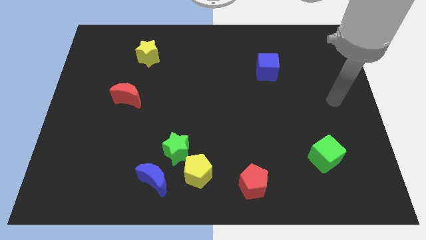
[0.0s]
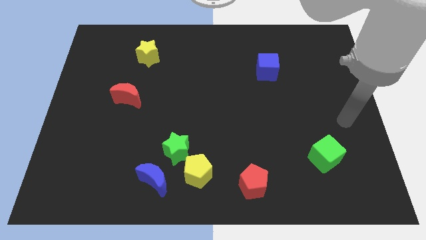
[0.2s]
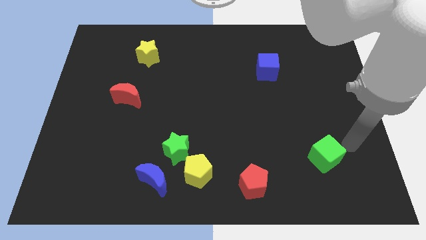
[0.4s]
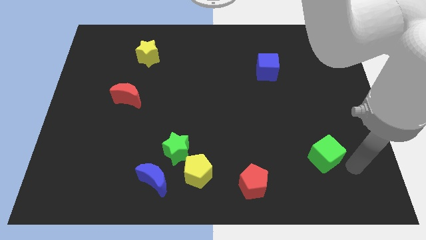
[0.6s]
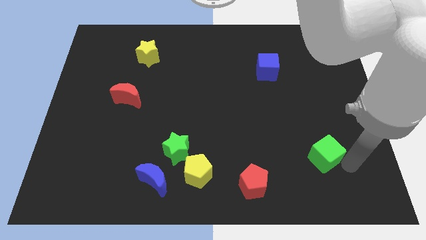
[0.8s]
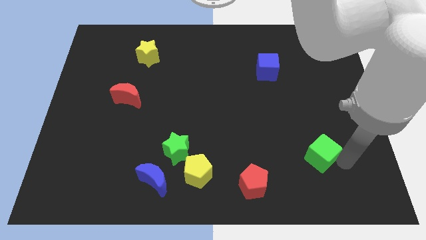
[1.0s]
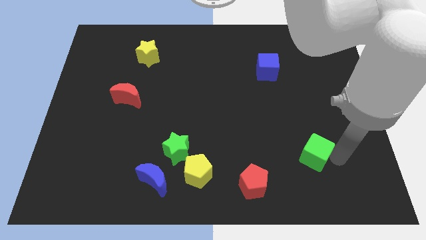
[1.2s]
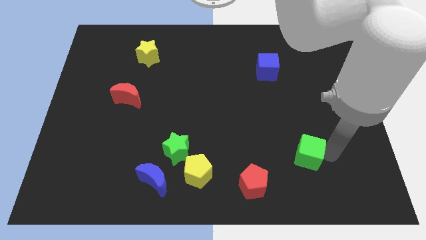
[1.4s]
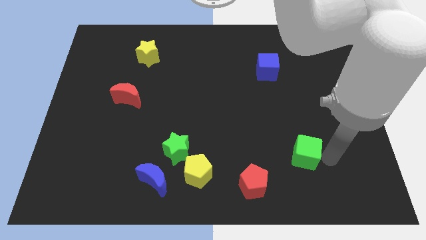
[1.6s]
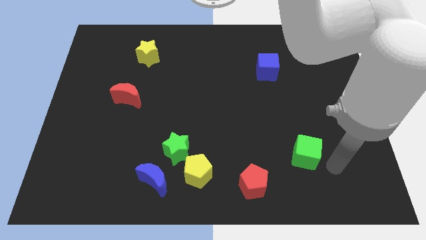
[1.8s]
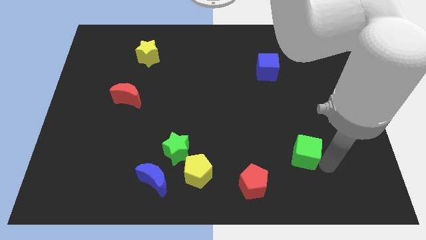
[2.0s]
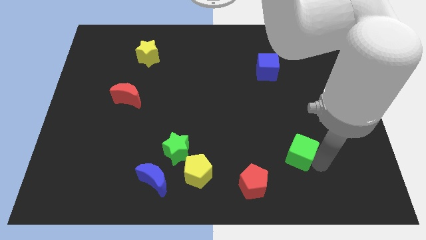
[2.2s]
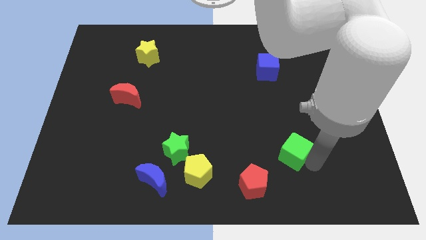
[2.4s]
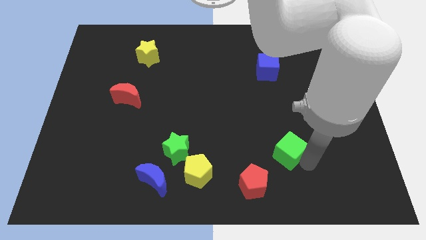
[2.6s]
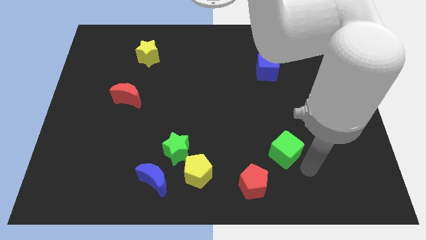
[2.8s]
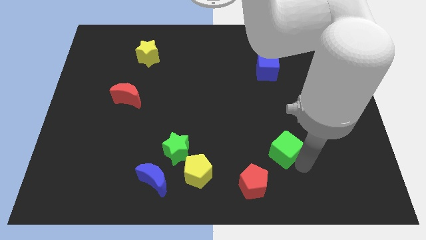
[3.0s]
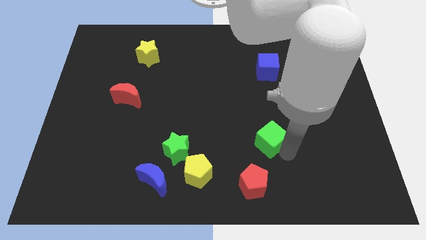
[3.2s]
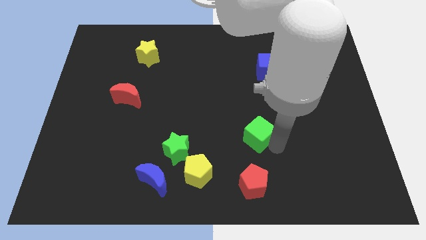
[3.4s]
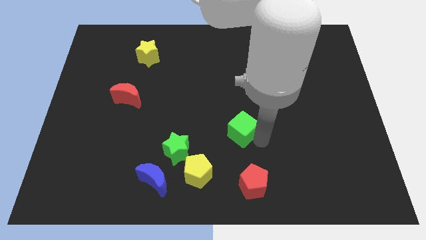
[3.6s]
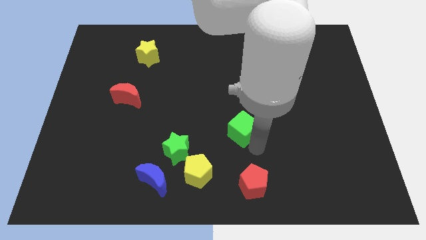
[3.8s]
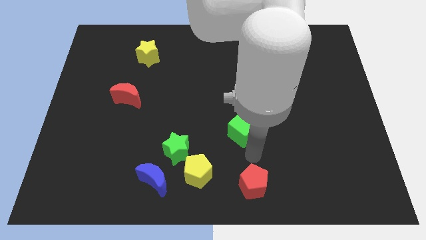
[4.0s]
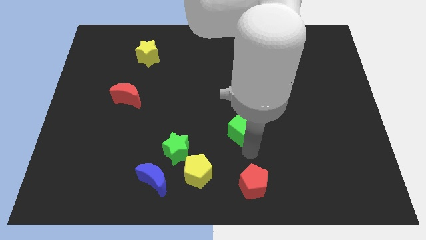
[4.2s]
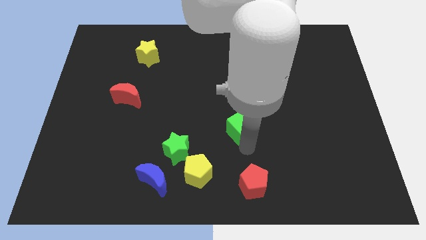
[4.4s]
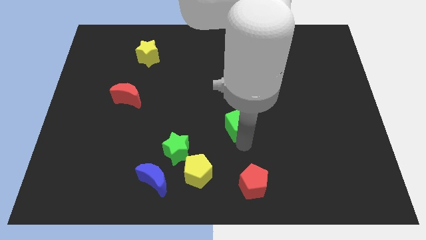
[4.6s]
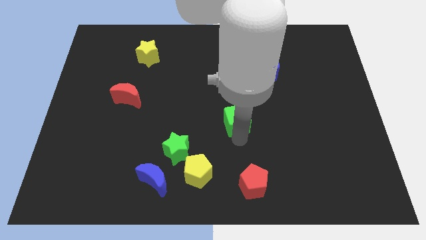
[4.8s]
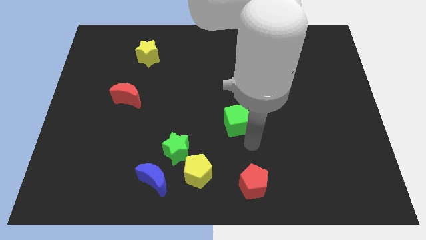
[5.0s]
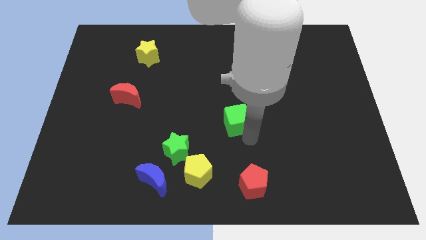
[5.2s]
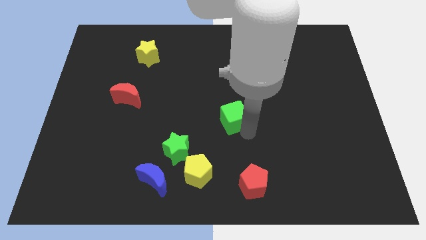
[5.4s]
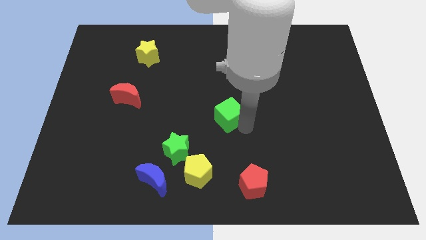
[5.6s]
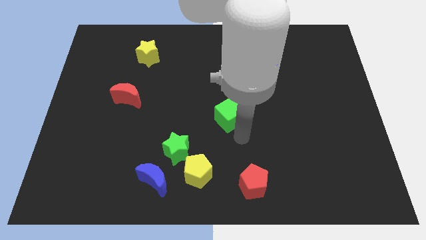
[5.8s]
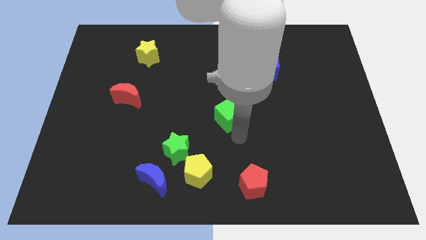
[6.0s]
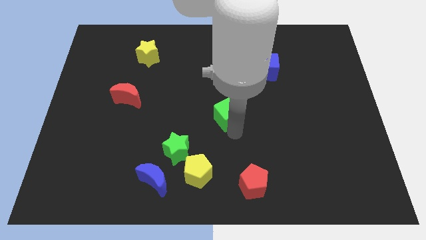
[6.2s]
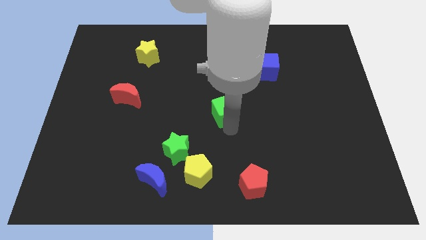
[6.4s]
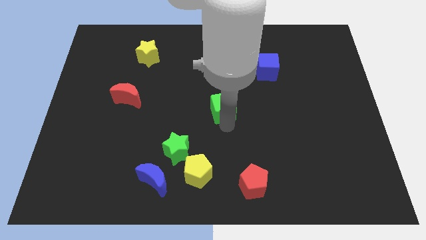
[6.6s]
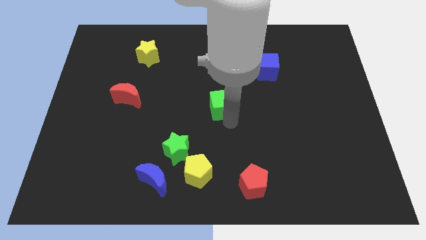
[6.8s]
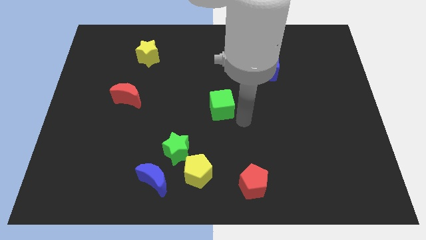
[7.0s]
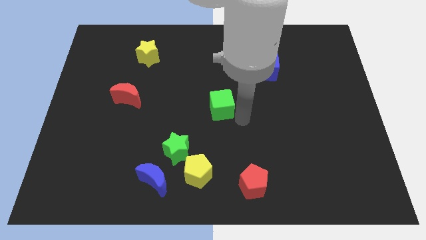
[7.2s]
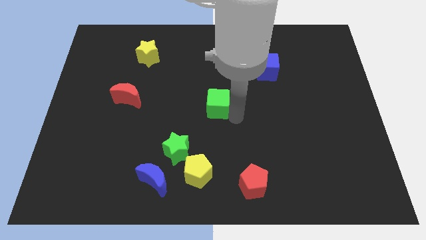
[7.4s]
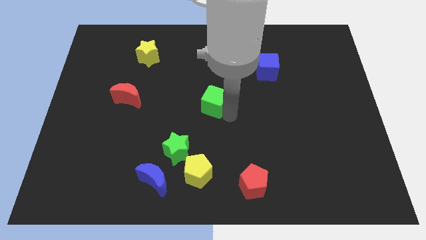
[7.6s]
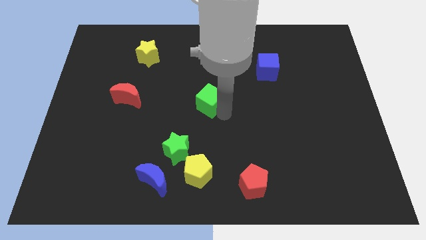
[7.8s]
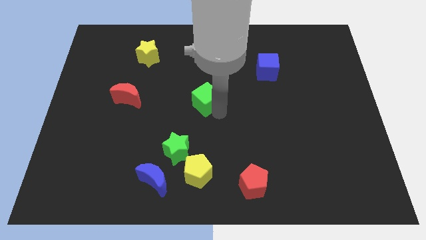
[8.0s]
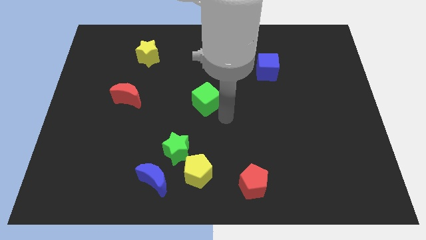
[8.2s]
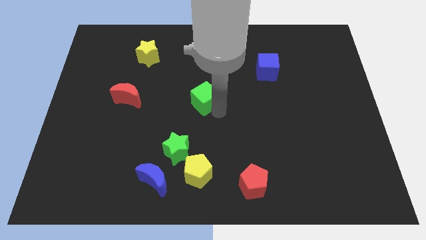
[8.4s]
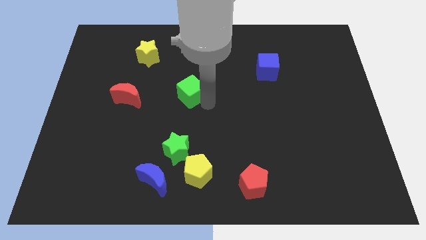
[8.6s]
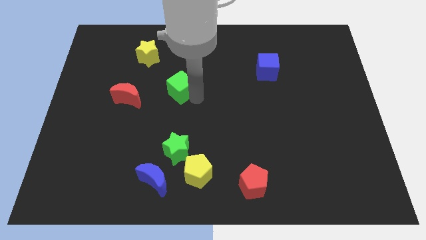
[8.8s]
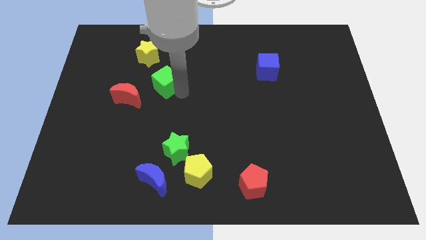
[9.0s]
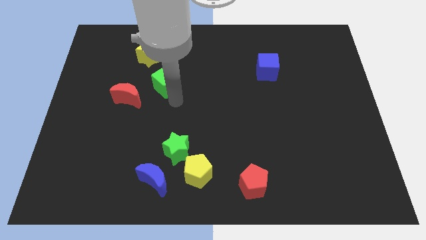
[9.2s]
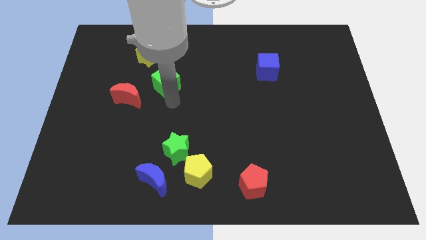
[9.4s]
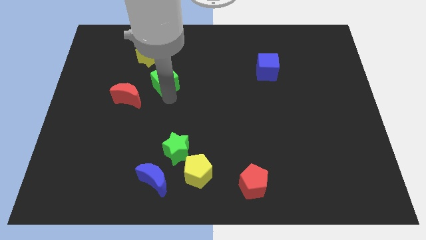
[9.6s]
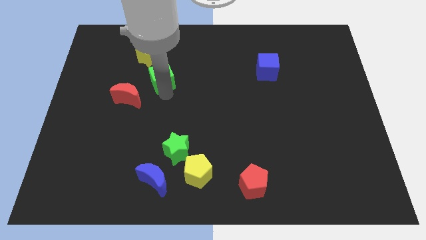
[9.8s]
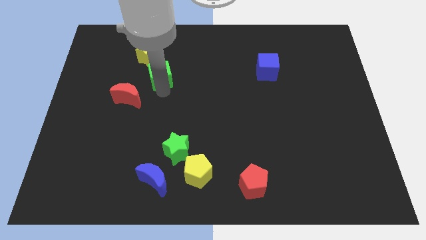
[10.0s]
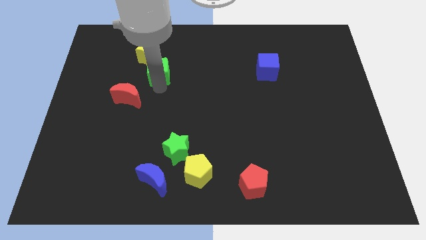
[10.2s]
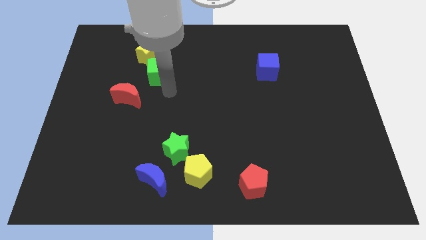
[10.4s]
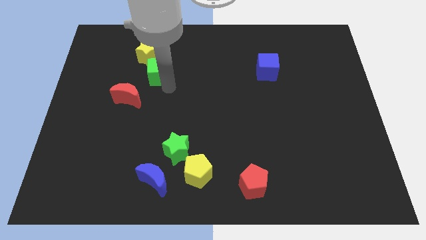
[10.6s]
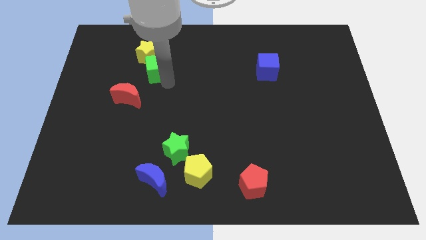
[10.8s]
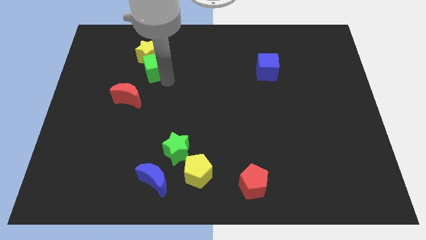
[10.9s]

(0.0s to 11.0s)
put the green cube to the yellow star

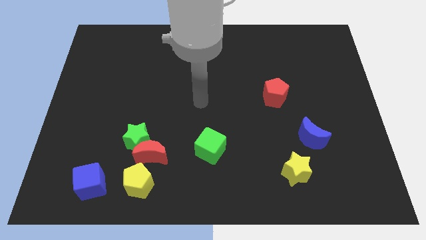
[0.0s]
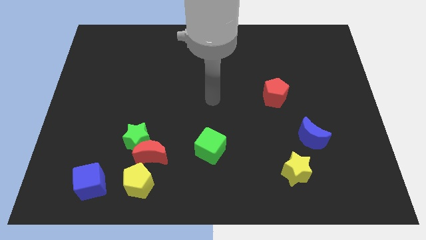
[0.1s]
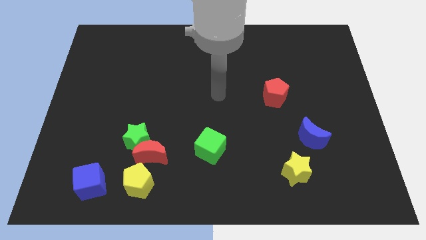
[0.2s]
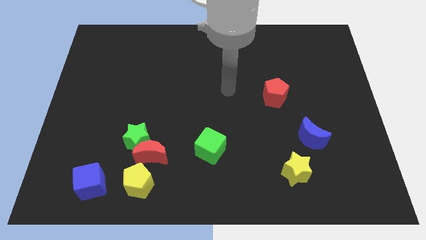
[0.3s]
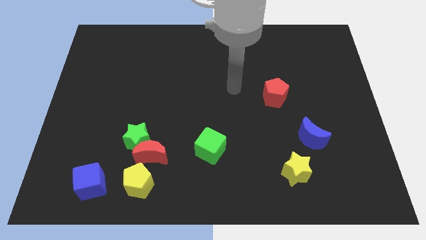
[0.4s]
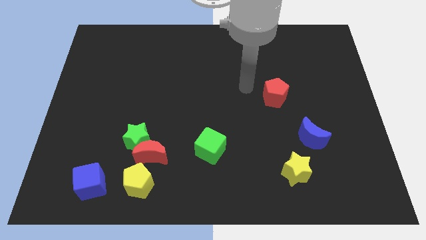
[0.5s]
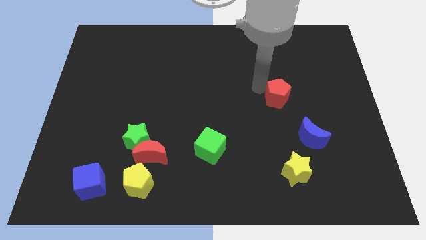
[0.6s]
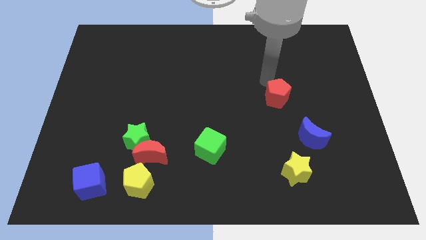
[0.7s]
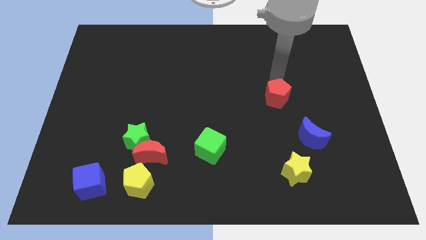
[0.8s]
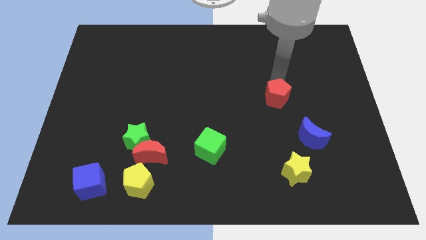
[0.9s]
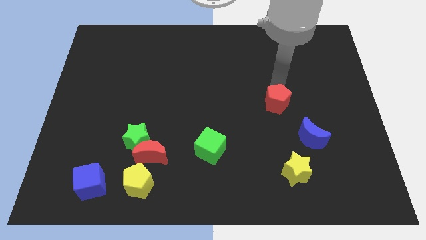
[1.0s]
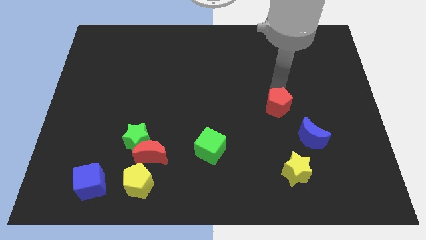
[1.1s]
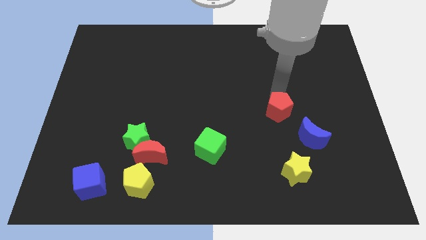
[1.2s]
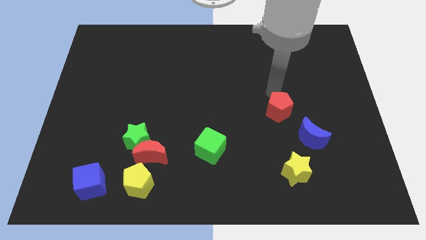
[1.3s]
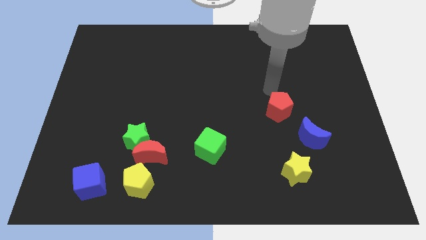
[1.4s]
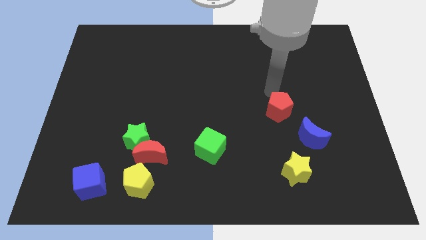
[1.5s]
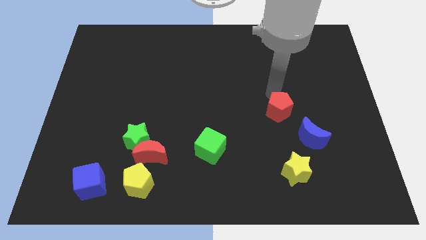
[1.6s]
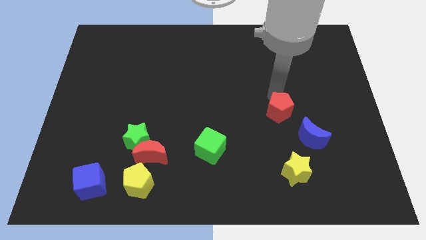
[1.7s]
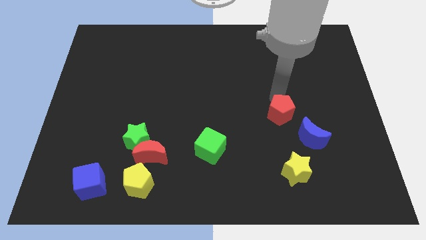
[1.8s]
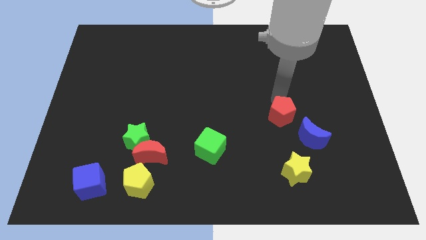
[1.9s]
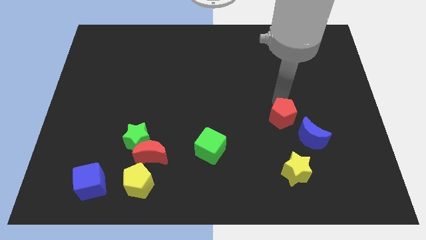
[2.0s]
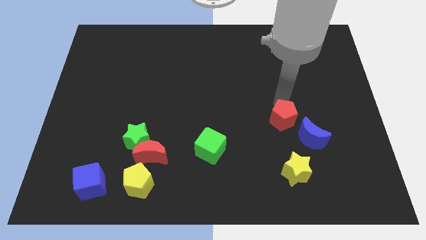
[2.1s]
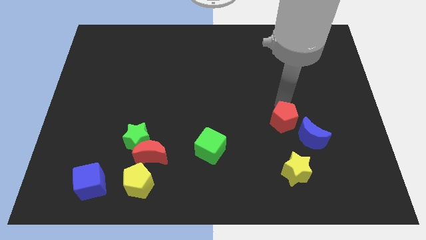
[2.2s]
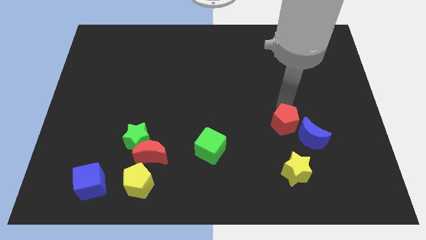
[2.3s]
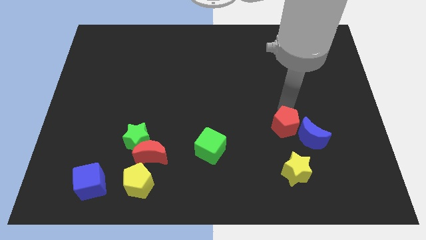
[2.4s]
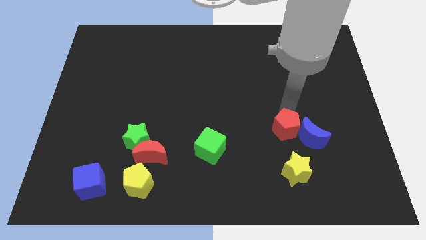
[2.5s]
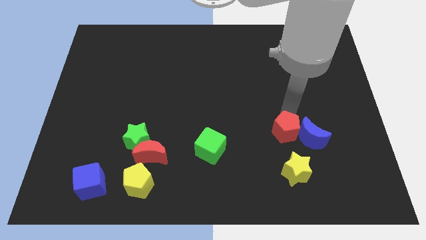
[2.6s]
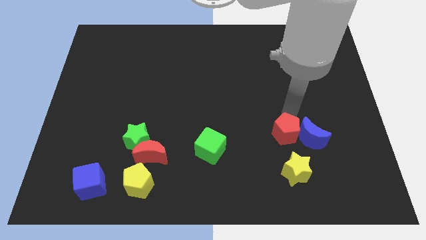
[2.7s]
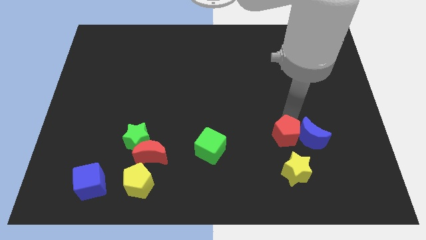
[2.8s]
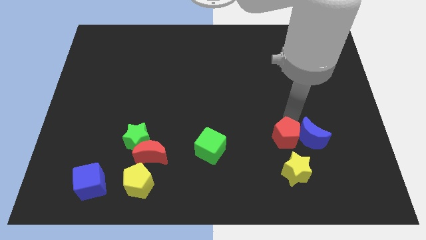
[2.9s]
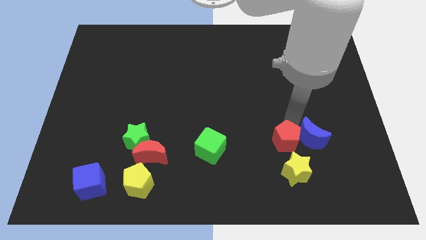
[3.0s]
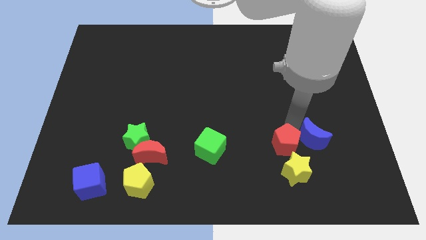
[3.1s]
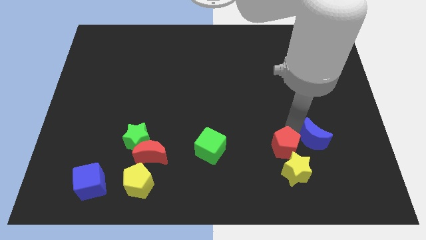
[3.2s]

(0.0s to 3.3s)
put the red pentagon close to the yellow star
